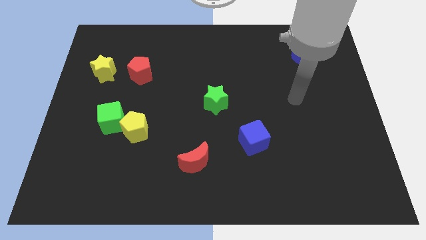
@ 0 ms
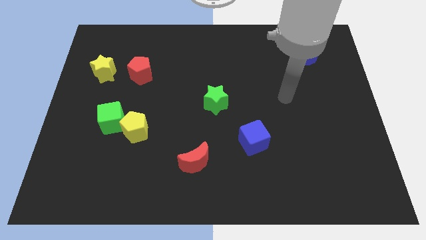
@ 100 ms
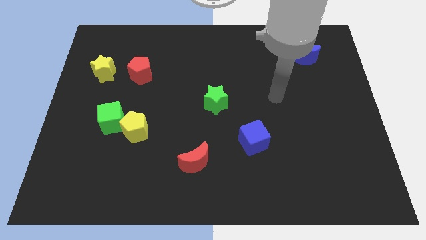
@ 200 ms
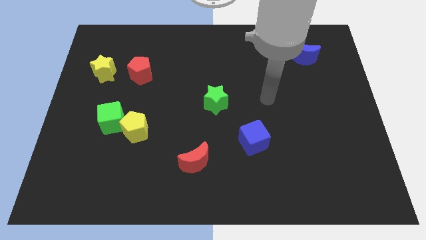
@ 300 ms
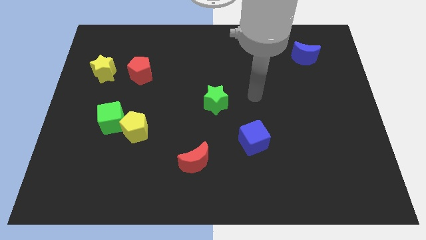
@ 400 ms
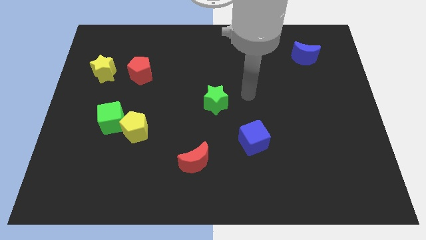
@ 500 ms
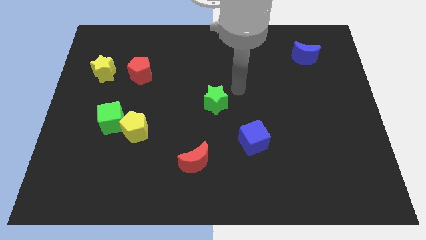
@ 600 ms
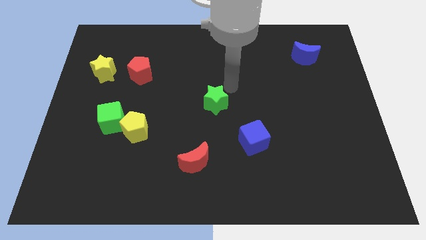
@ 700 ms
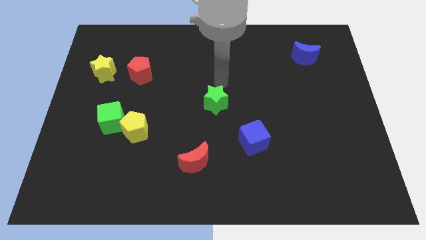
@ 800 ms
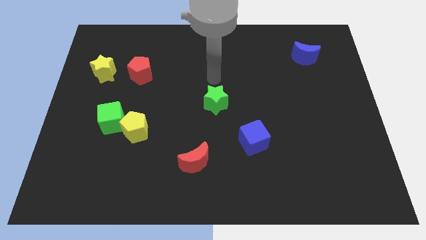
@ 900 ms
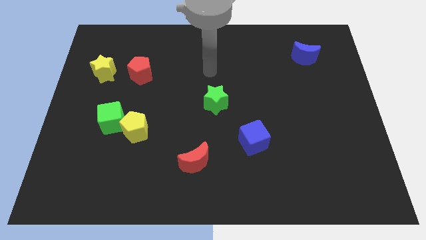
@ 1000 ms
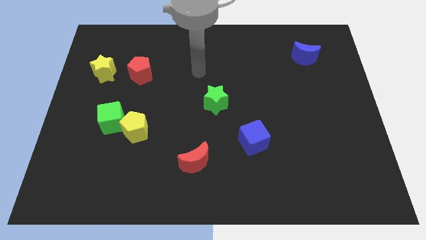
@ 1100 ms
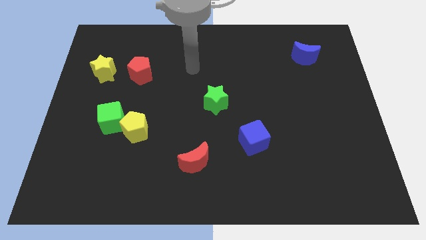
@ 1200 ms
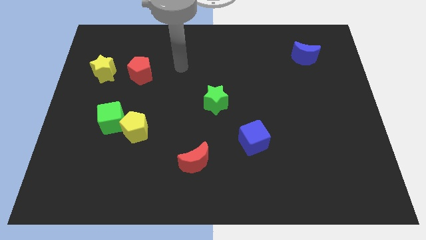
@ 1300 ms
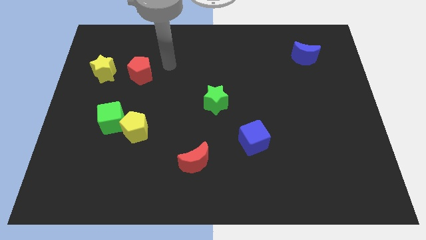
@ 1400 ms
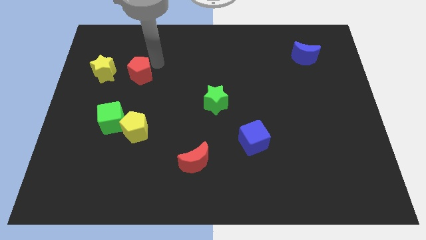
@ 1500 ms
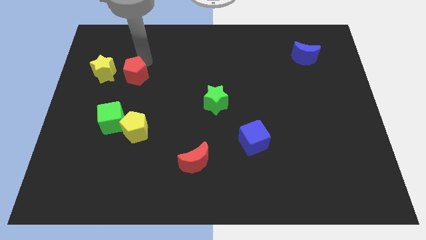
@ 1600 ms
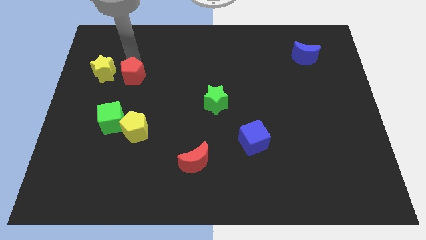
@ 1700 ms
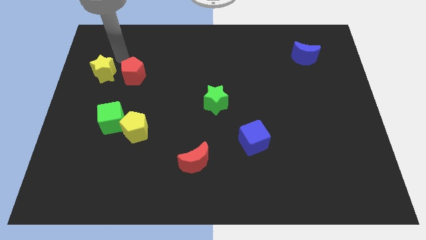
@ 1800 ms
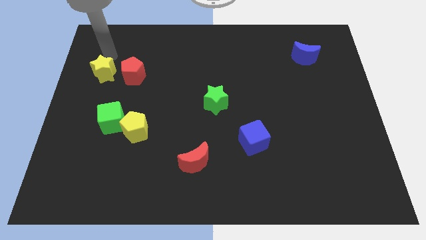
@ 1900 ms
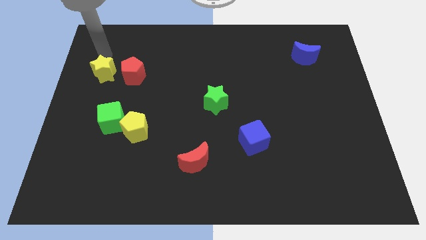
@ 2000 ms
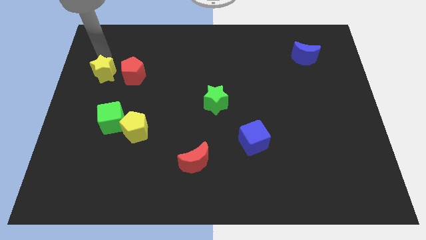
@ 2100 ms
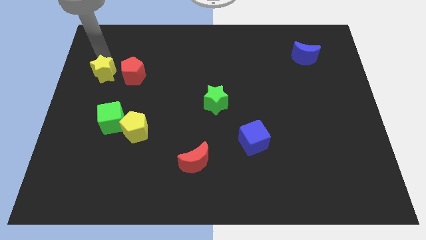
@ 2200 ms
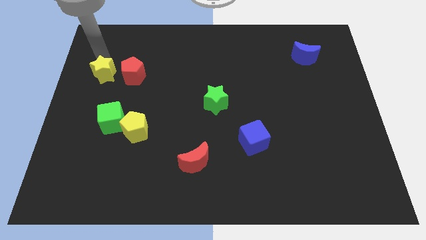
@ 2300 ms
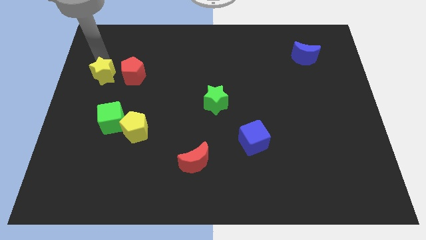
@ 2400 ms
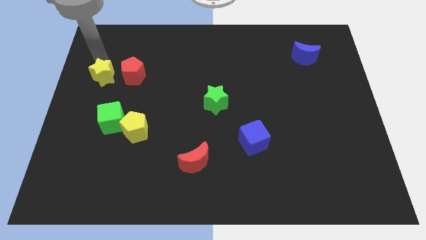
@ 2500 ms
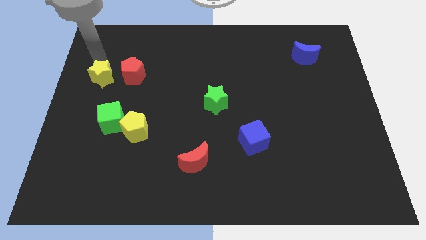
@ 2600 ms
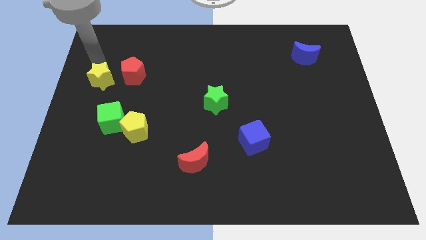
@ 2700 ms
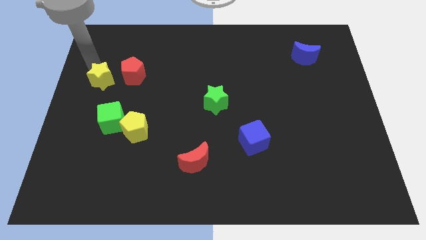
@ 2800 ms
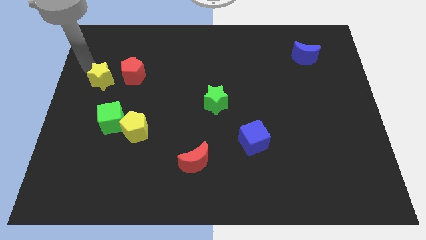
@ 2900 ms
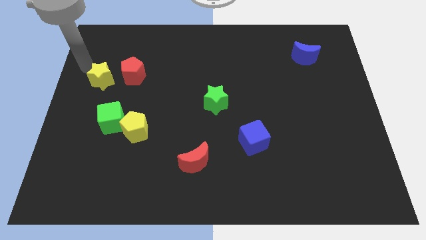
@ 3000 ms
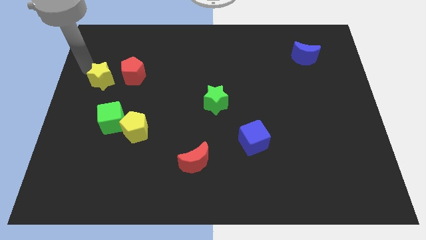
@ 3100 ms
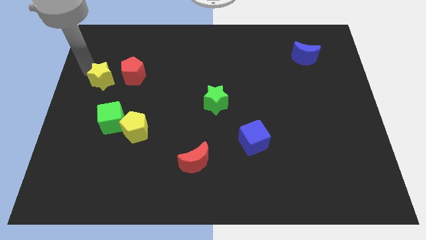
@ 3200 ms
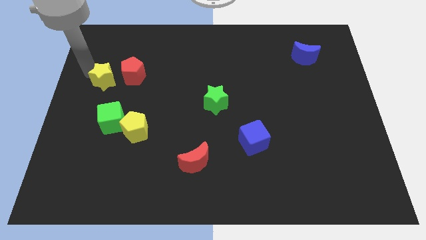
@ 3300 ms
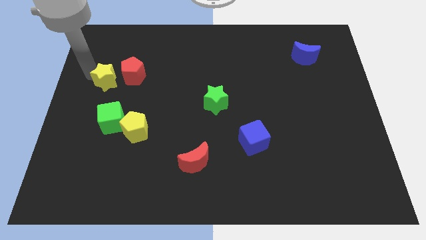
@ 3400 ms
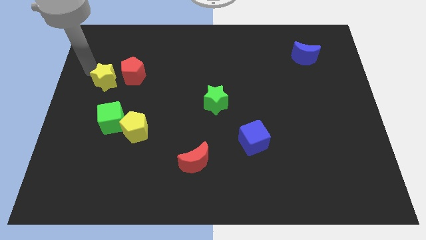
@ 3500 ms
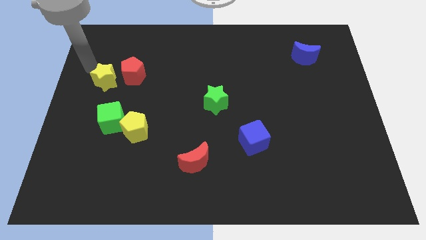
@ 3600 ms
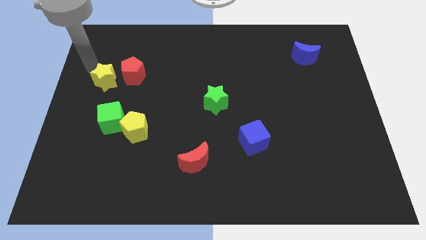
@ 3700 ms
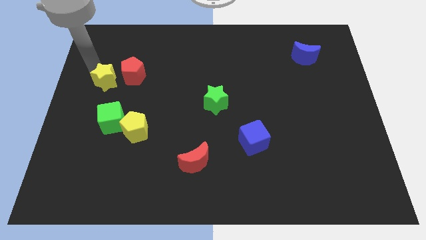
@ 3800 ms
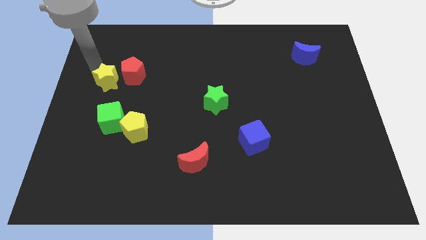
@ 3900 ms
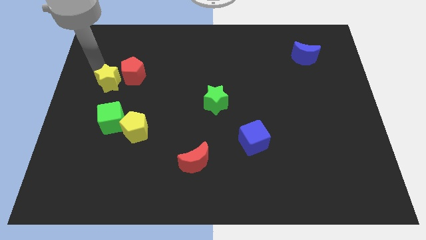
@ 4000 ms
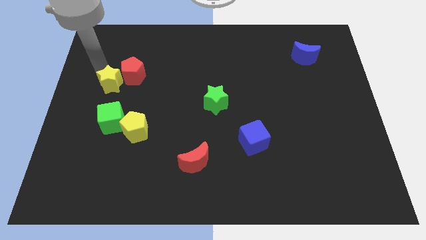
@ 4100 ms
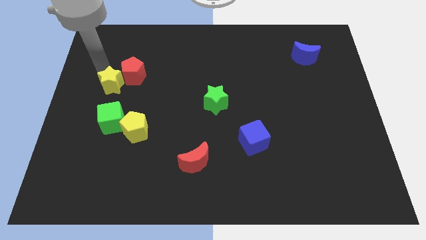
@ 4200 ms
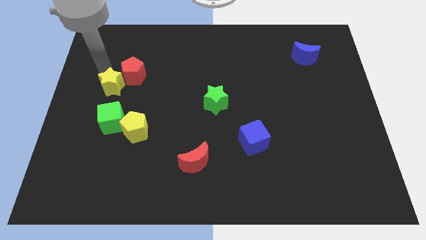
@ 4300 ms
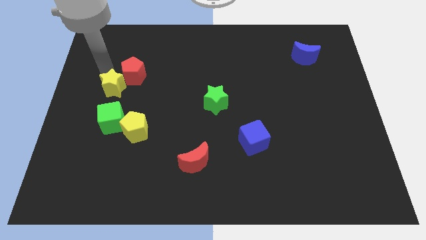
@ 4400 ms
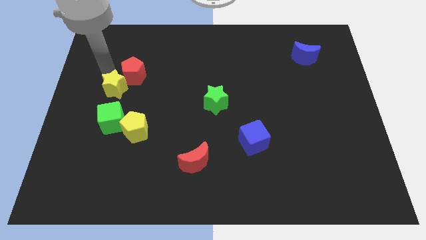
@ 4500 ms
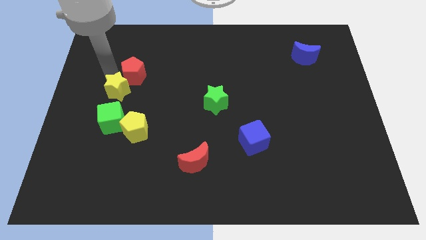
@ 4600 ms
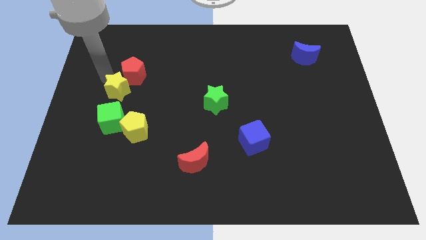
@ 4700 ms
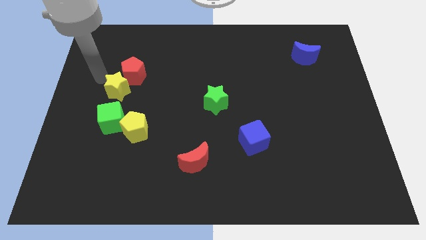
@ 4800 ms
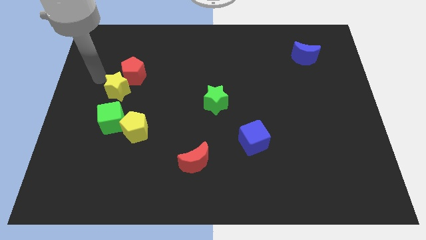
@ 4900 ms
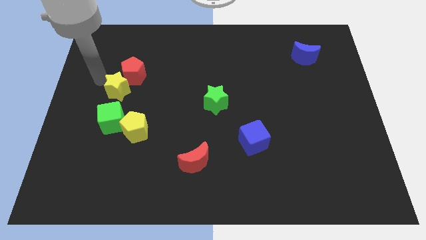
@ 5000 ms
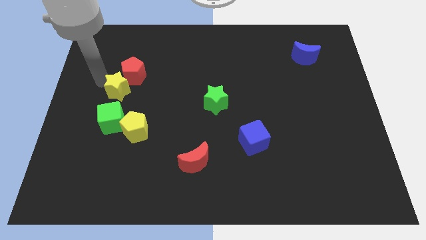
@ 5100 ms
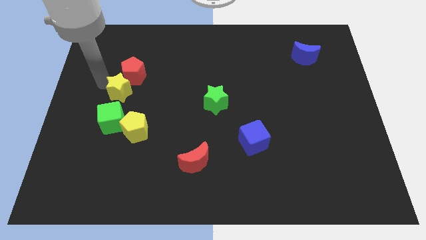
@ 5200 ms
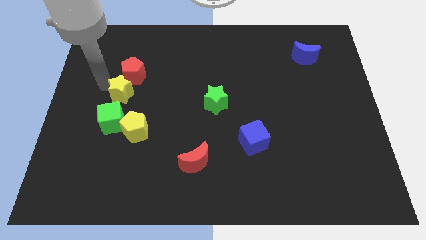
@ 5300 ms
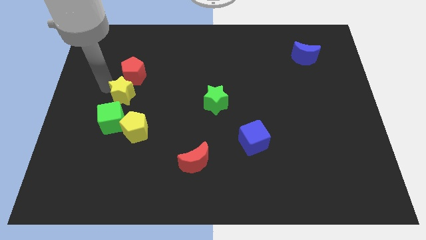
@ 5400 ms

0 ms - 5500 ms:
put the yellow star to the top right of the green cube

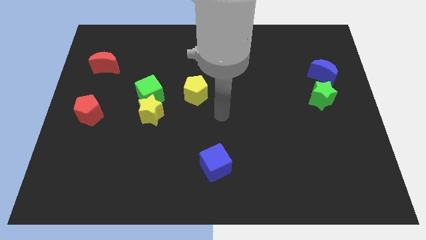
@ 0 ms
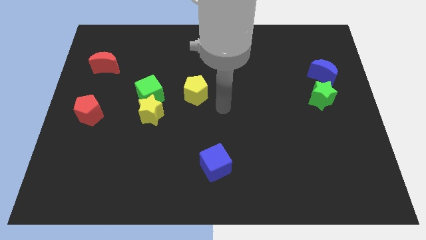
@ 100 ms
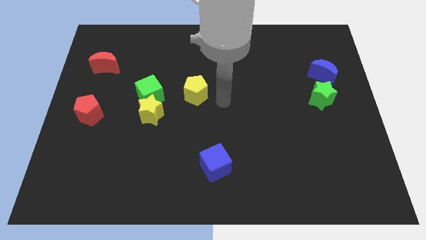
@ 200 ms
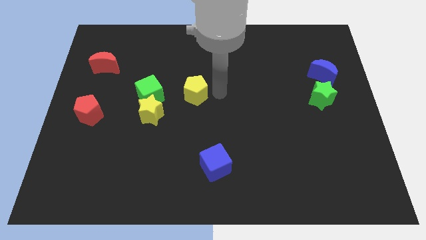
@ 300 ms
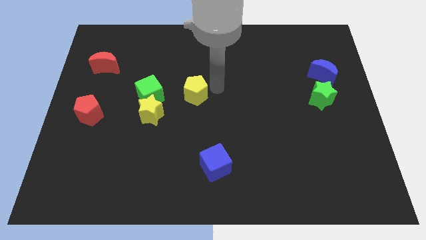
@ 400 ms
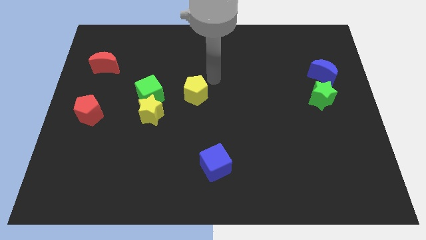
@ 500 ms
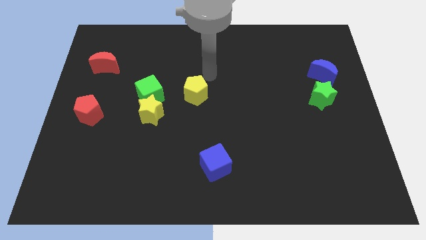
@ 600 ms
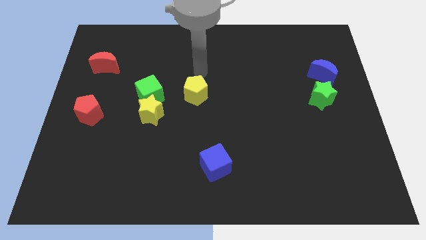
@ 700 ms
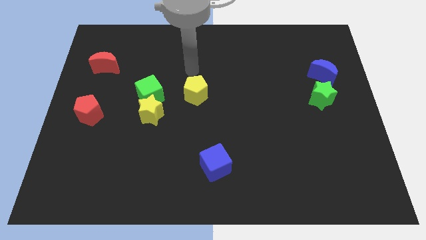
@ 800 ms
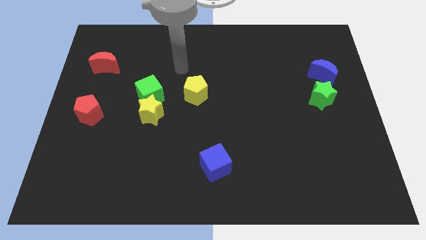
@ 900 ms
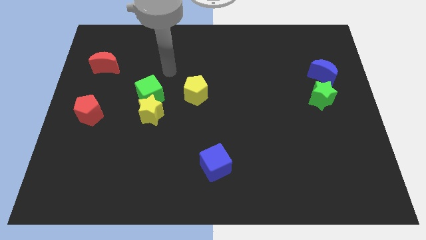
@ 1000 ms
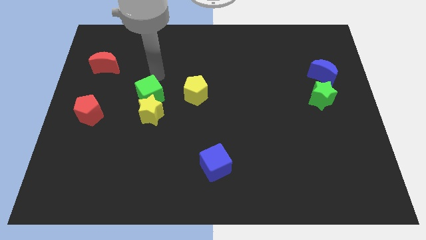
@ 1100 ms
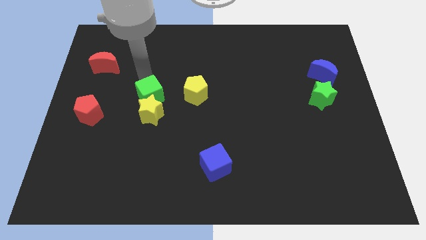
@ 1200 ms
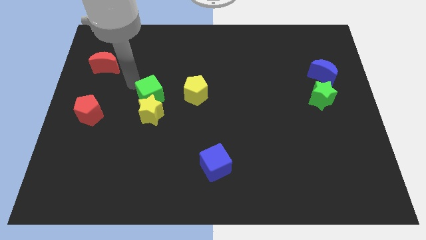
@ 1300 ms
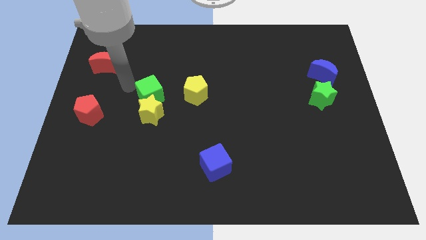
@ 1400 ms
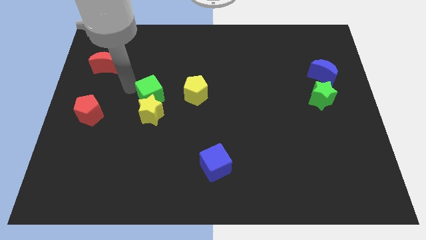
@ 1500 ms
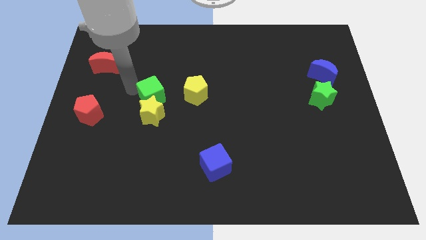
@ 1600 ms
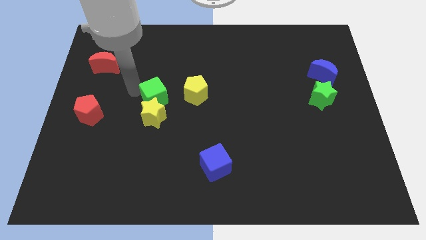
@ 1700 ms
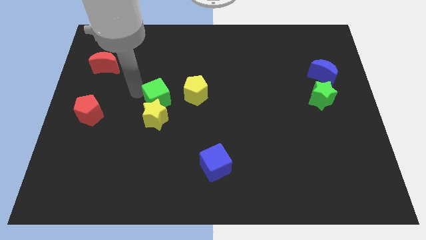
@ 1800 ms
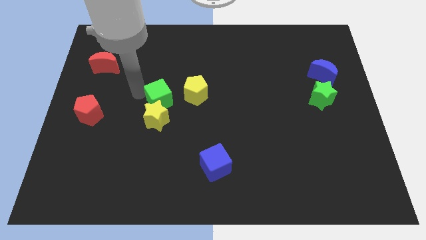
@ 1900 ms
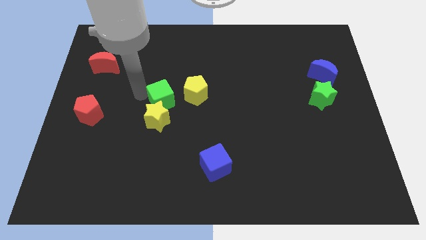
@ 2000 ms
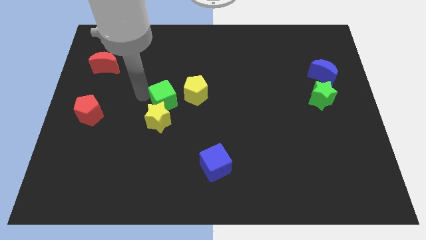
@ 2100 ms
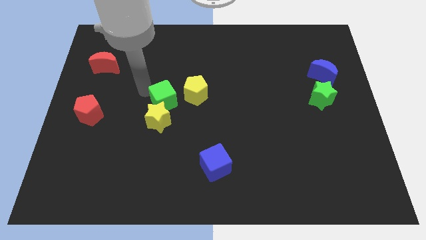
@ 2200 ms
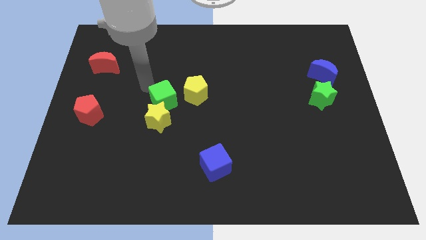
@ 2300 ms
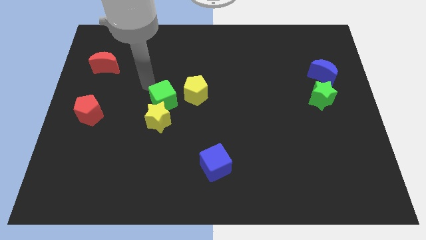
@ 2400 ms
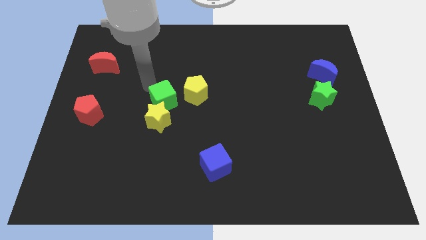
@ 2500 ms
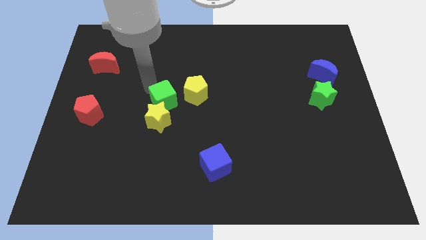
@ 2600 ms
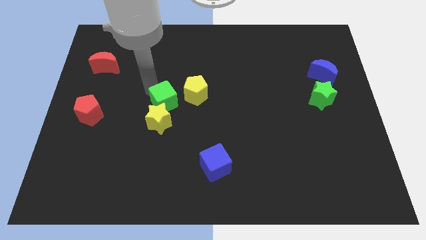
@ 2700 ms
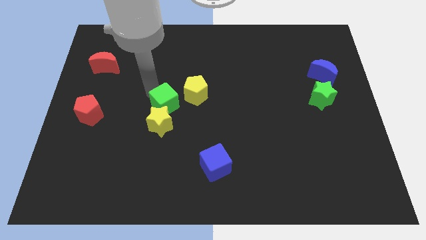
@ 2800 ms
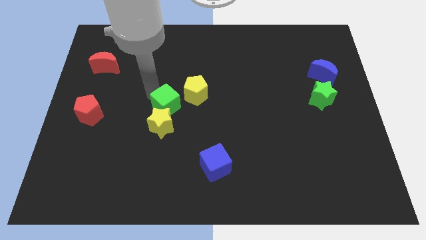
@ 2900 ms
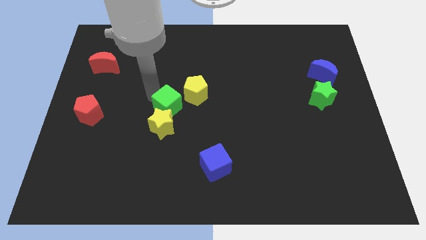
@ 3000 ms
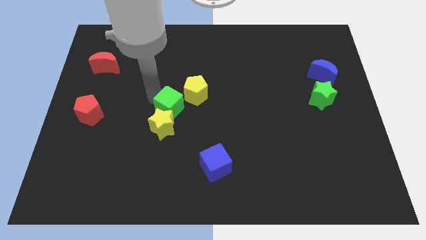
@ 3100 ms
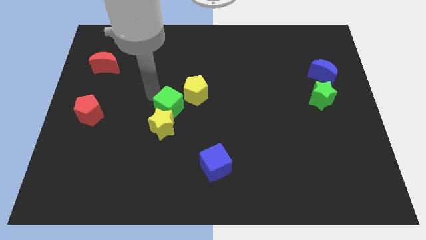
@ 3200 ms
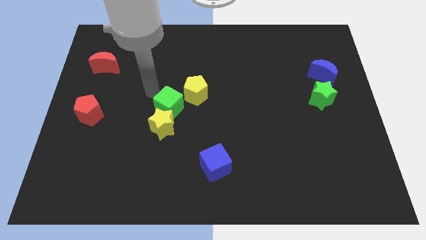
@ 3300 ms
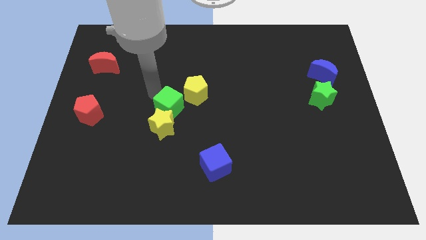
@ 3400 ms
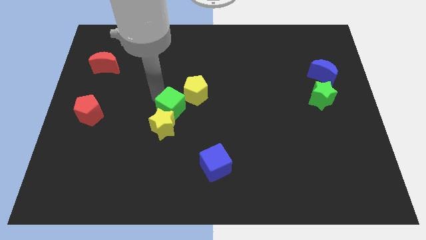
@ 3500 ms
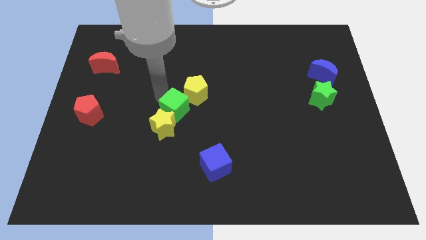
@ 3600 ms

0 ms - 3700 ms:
push the green cube to the bottom of the yellow pentagon
